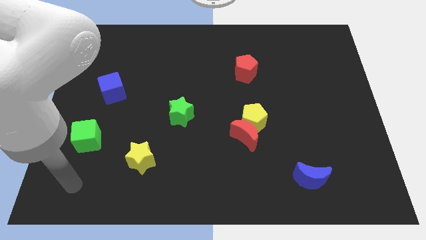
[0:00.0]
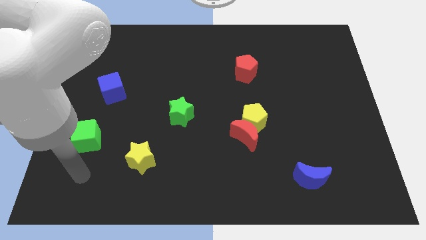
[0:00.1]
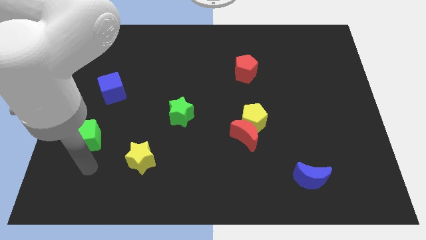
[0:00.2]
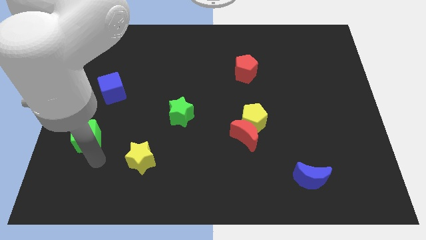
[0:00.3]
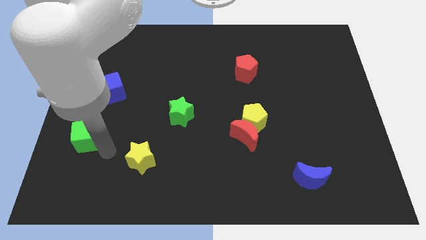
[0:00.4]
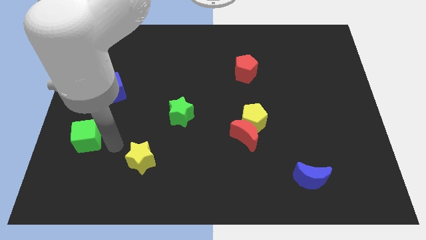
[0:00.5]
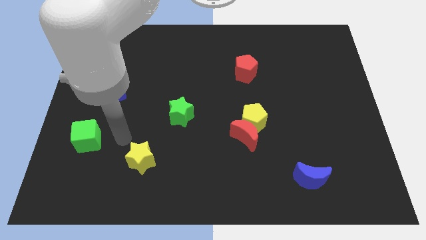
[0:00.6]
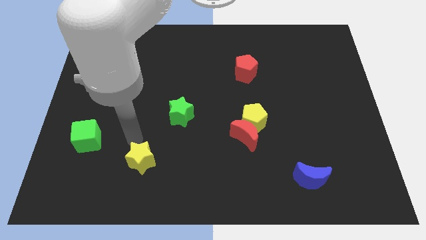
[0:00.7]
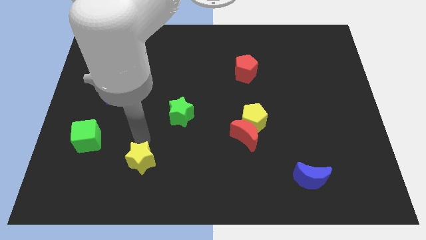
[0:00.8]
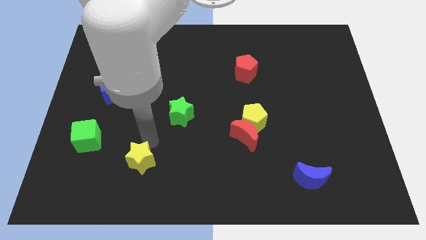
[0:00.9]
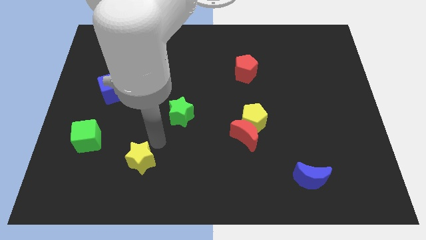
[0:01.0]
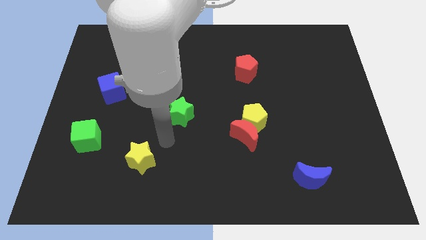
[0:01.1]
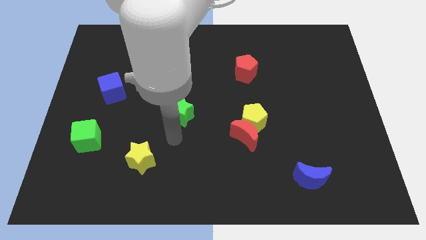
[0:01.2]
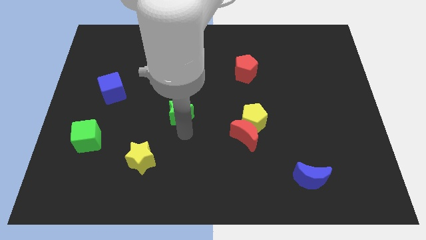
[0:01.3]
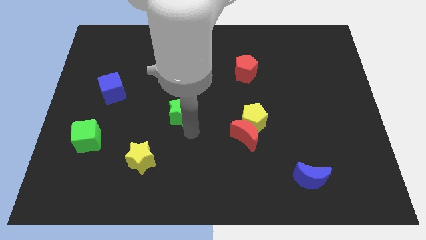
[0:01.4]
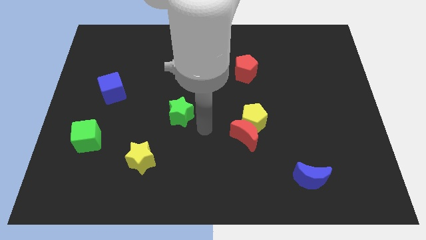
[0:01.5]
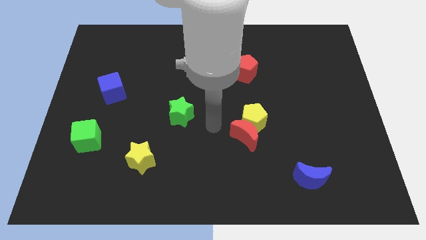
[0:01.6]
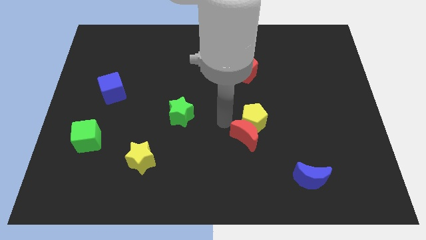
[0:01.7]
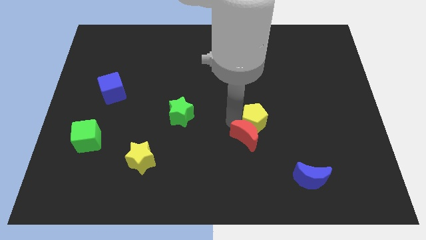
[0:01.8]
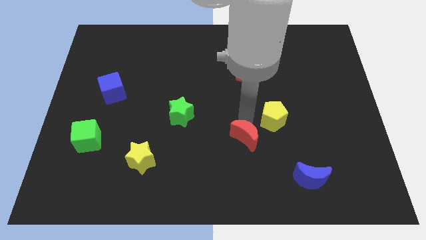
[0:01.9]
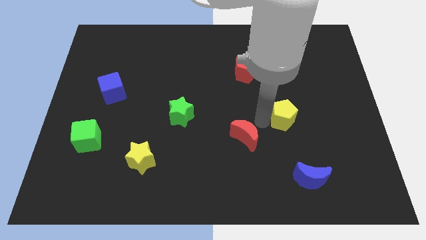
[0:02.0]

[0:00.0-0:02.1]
separate the red moon from the yellow pentagon

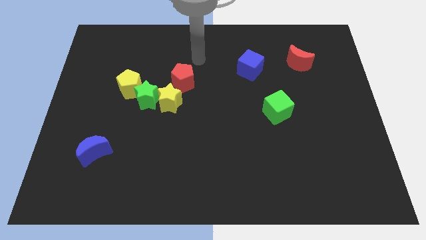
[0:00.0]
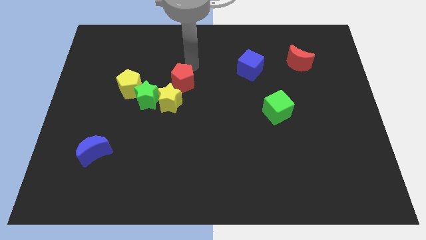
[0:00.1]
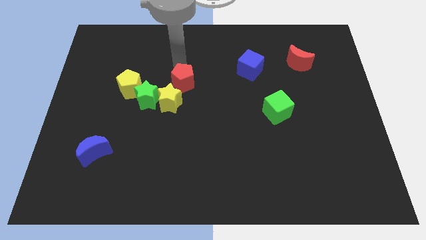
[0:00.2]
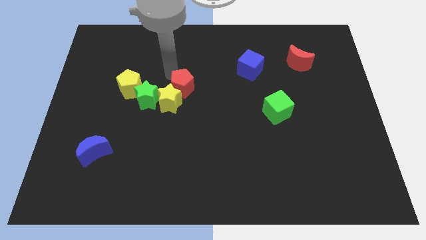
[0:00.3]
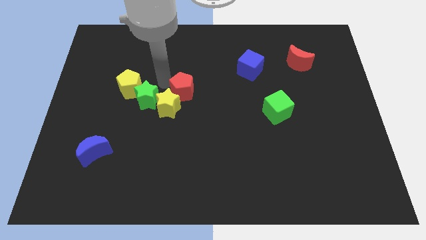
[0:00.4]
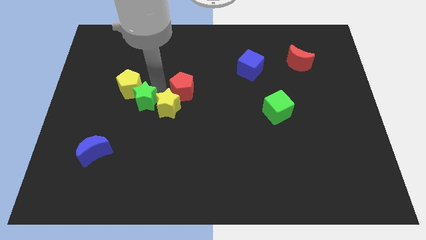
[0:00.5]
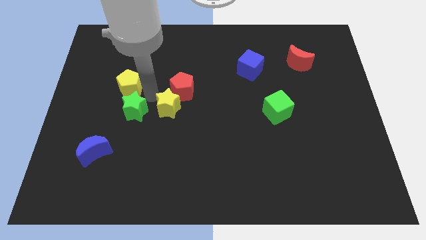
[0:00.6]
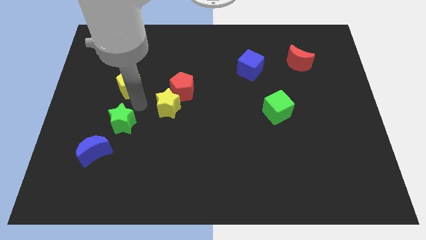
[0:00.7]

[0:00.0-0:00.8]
pull the yellow pentagon apart from the green star

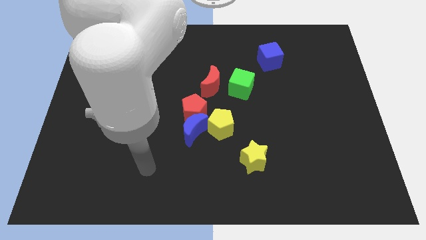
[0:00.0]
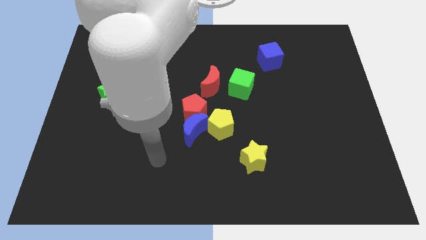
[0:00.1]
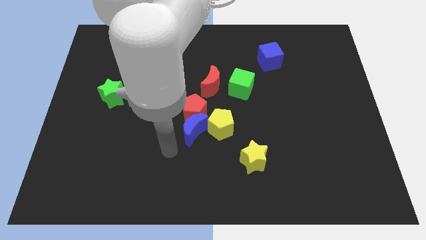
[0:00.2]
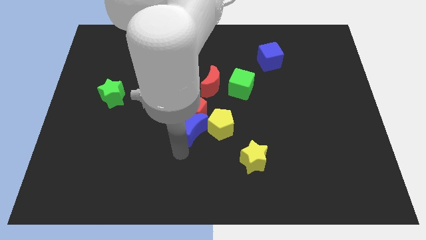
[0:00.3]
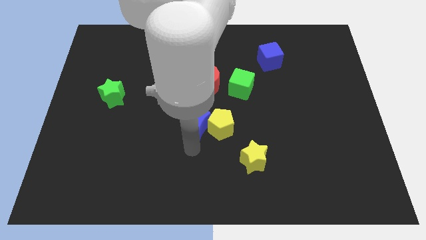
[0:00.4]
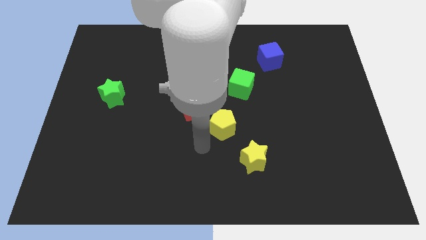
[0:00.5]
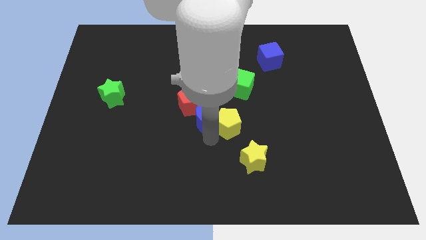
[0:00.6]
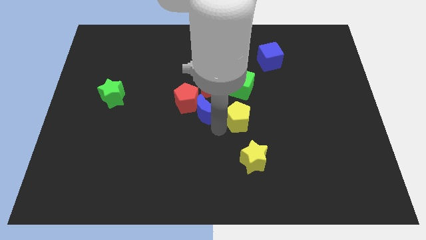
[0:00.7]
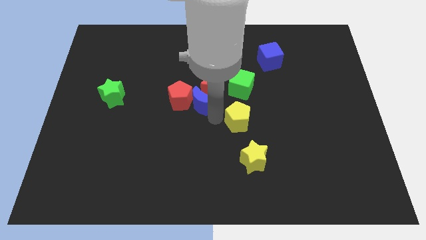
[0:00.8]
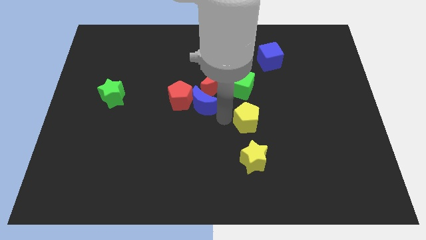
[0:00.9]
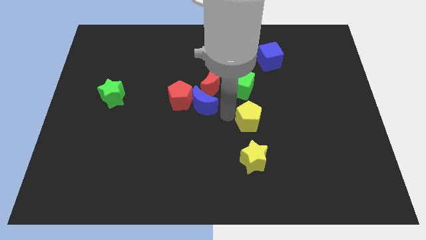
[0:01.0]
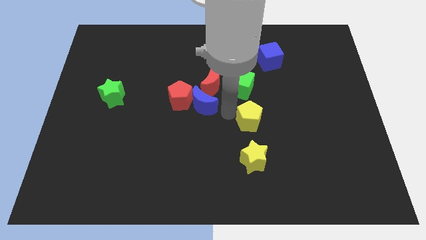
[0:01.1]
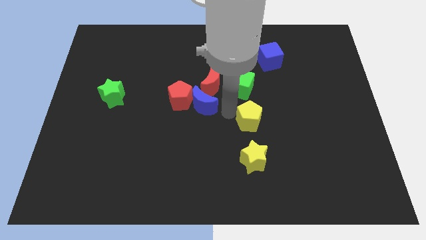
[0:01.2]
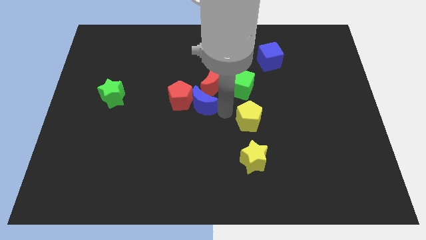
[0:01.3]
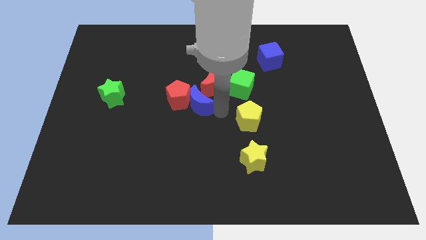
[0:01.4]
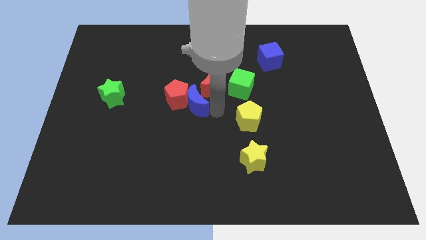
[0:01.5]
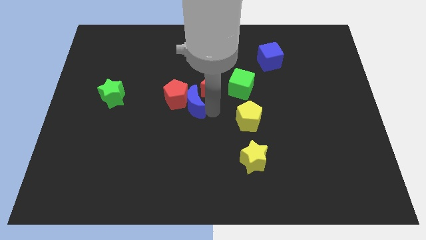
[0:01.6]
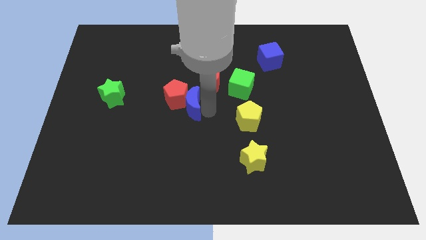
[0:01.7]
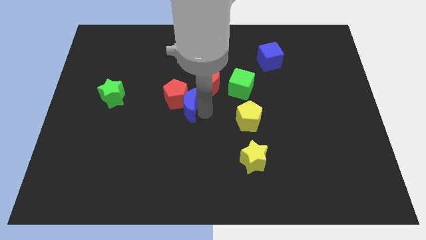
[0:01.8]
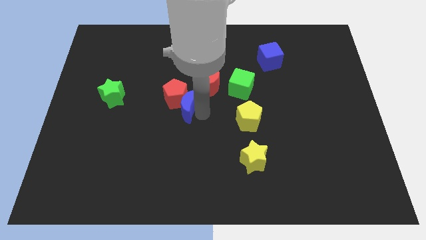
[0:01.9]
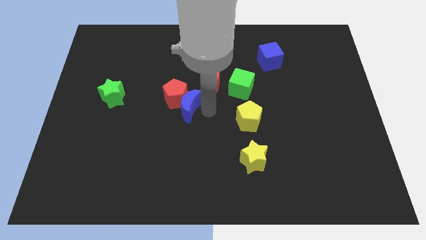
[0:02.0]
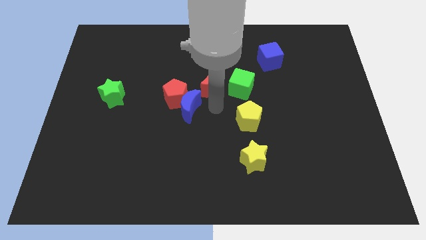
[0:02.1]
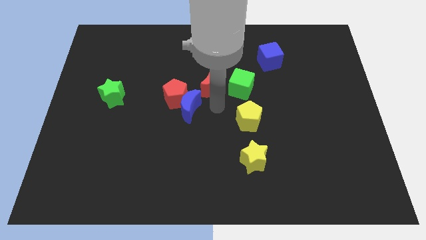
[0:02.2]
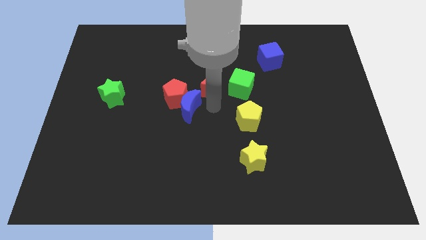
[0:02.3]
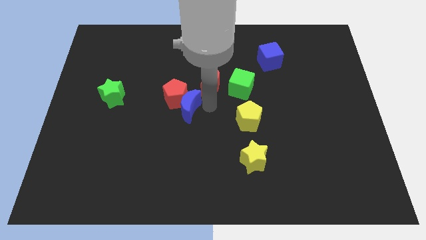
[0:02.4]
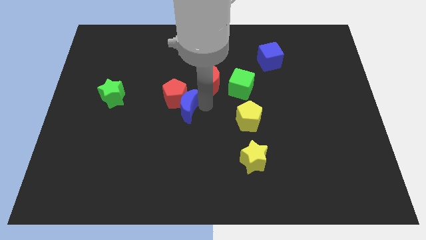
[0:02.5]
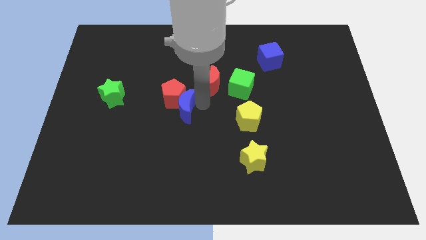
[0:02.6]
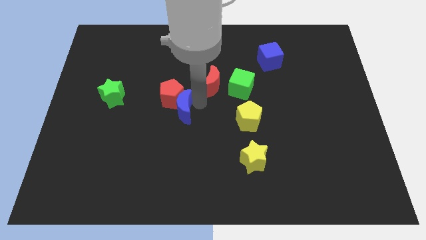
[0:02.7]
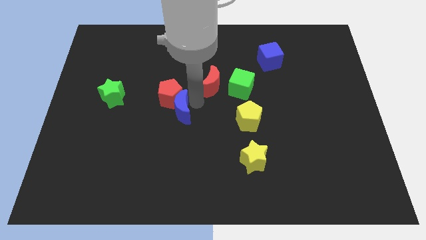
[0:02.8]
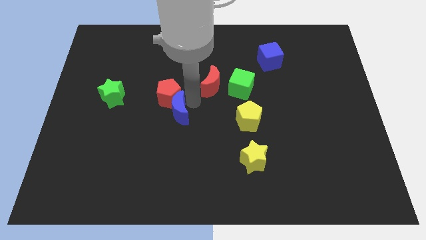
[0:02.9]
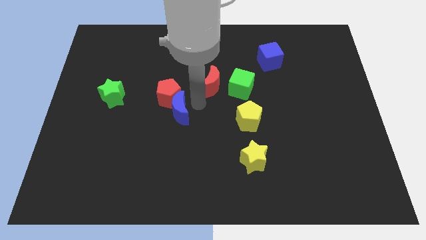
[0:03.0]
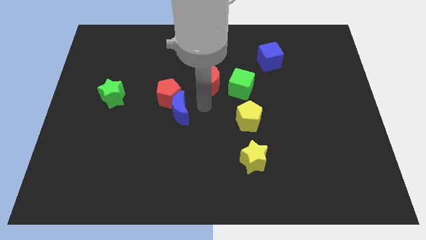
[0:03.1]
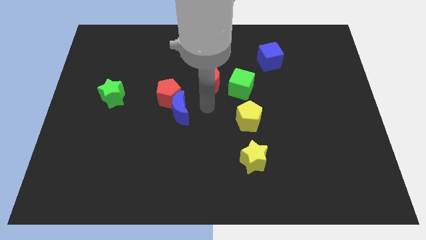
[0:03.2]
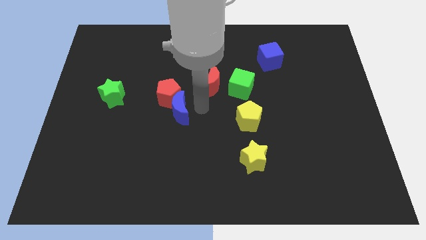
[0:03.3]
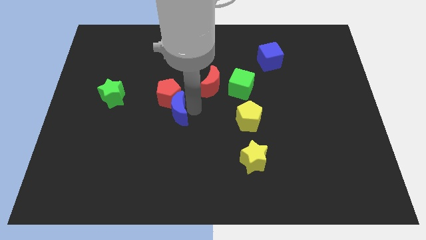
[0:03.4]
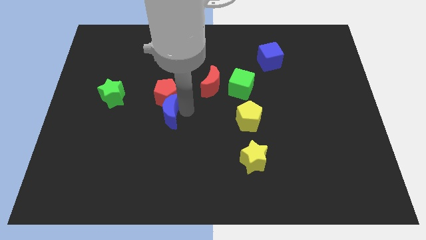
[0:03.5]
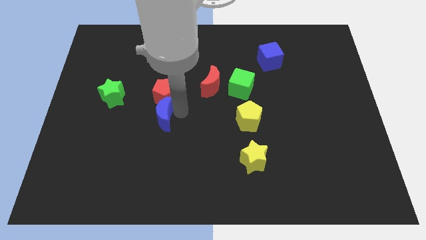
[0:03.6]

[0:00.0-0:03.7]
separate the blue moon from the red pentagon and yellow pentagon

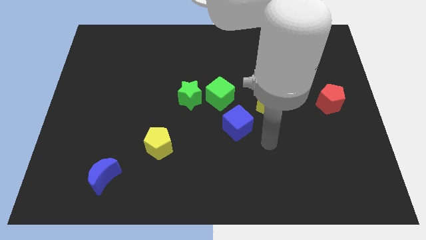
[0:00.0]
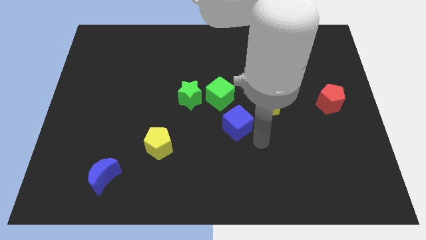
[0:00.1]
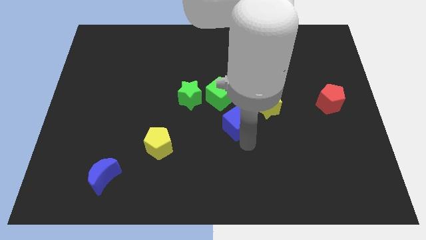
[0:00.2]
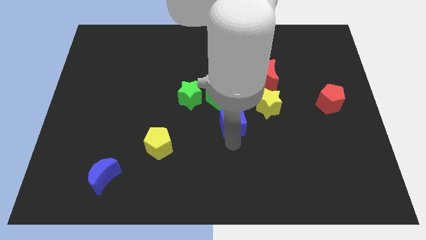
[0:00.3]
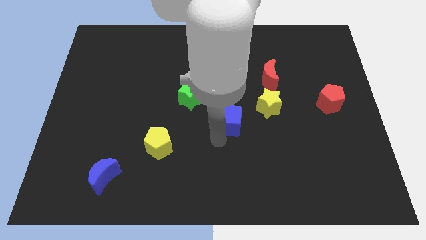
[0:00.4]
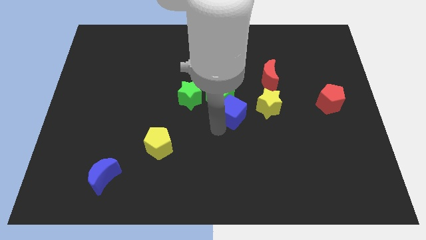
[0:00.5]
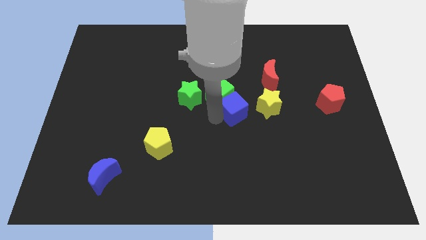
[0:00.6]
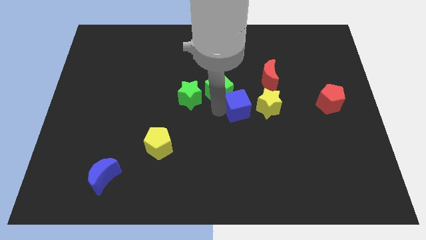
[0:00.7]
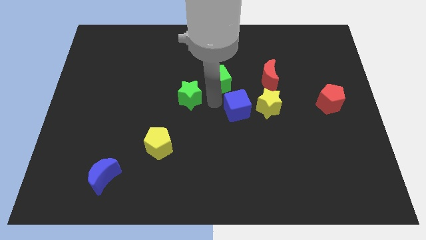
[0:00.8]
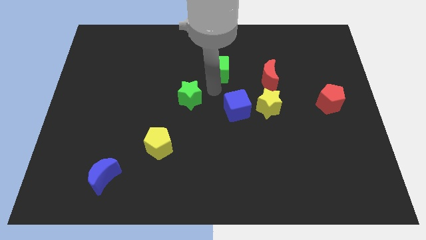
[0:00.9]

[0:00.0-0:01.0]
separate the green star from the green cube

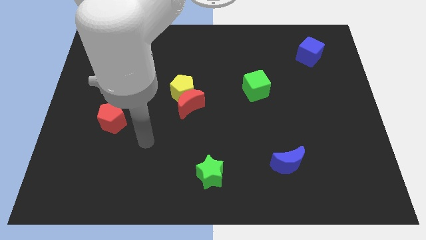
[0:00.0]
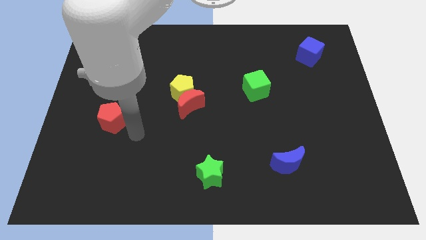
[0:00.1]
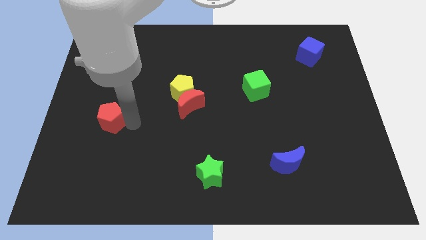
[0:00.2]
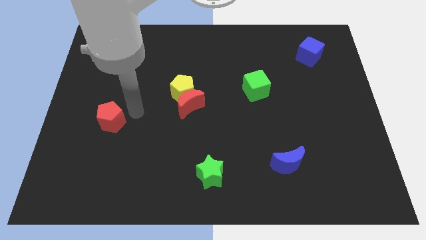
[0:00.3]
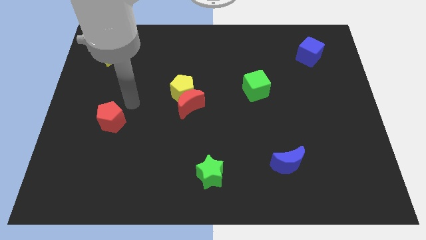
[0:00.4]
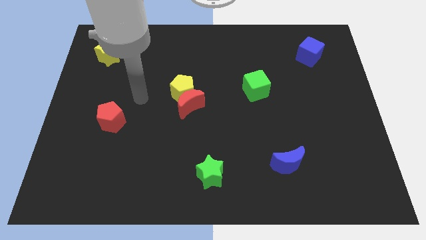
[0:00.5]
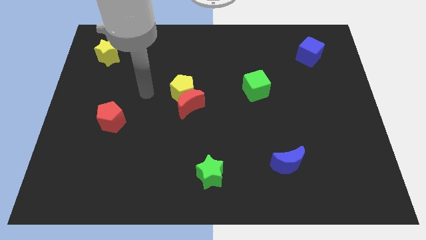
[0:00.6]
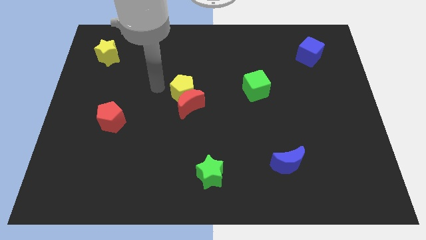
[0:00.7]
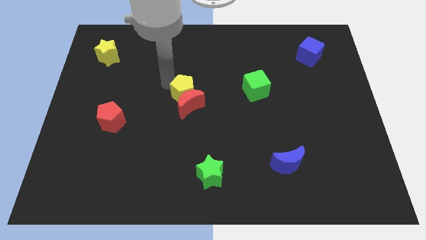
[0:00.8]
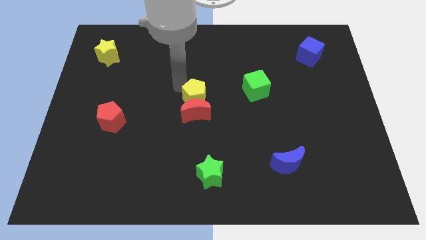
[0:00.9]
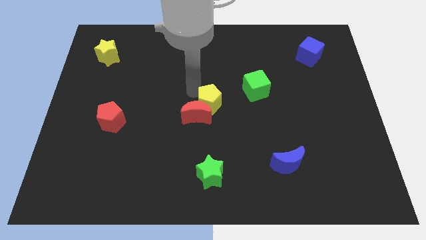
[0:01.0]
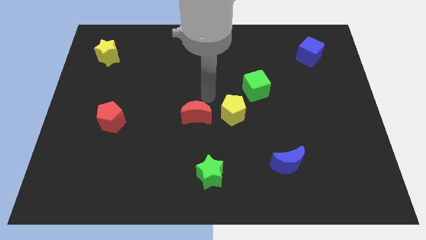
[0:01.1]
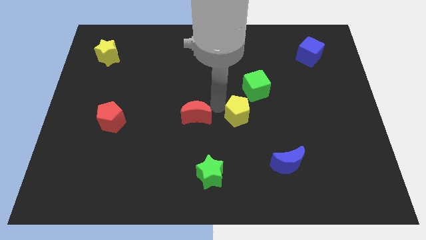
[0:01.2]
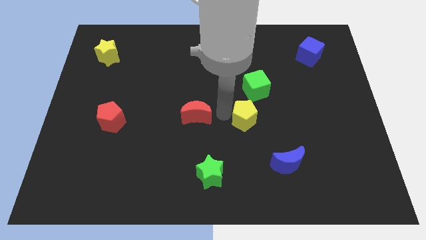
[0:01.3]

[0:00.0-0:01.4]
move the red moon away from the yellow pentagon

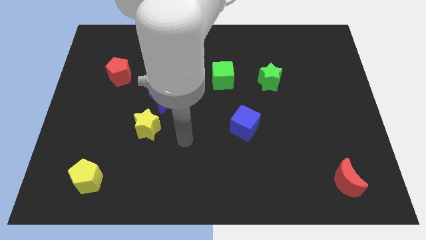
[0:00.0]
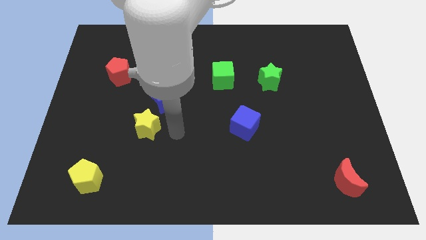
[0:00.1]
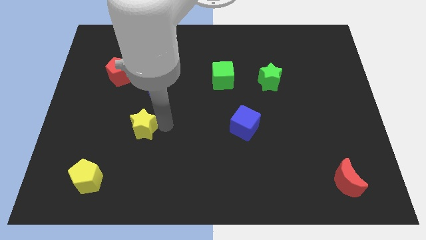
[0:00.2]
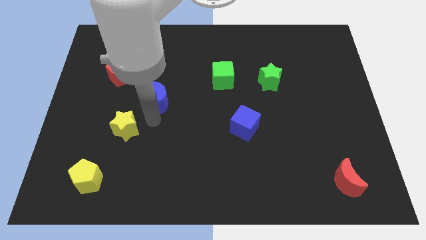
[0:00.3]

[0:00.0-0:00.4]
pull the blue moon apart from the yellow star
